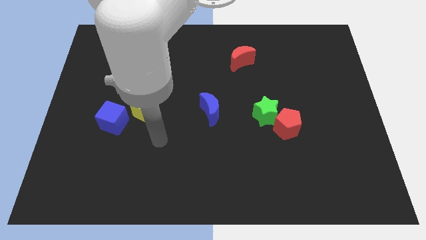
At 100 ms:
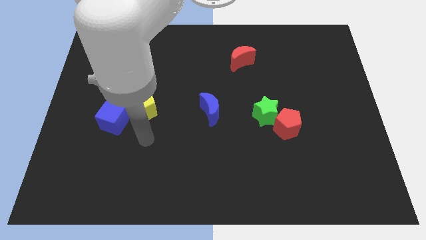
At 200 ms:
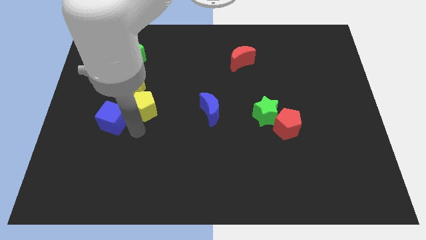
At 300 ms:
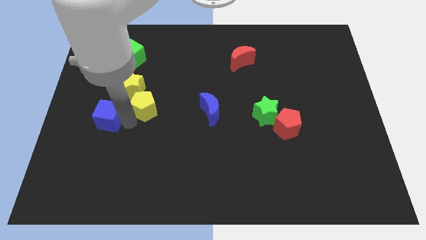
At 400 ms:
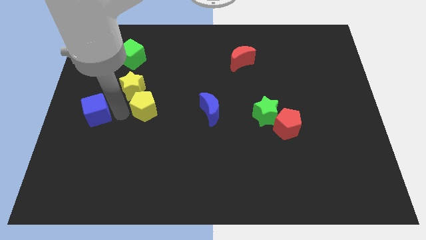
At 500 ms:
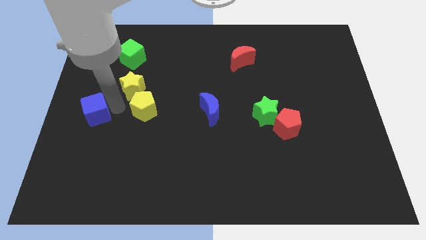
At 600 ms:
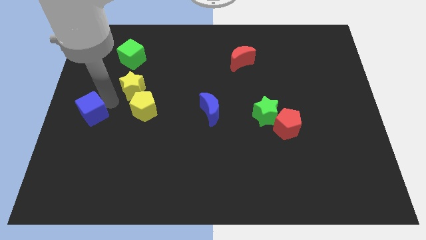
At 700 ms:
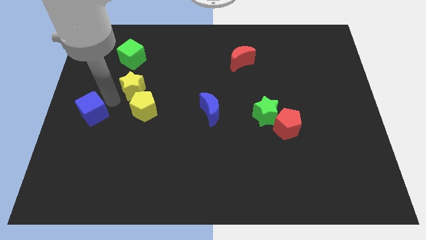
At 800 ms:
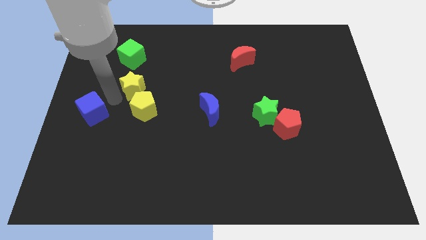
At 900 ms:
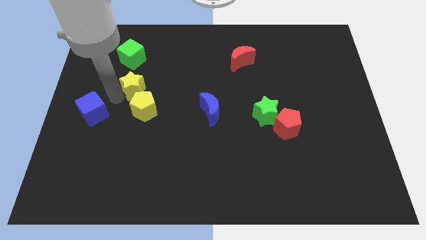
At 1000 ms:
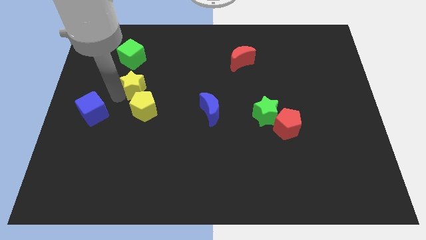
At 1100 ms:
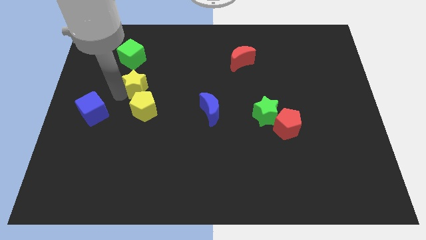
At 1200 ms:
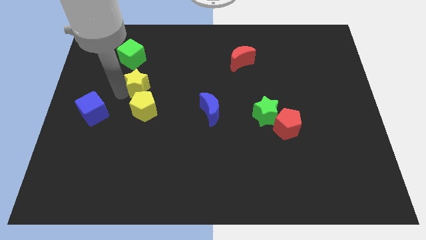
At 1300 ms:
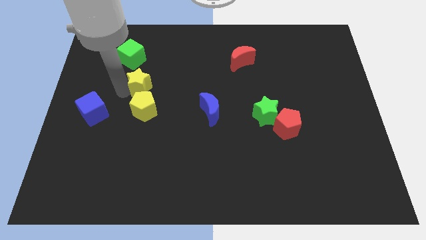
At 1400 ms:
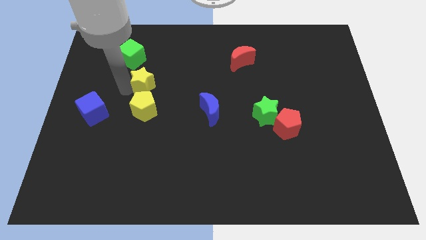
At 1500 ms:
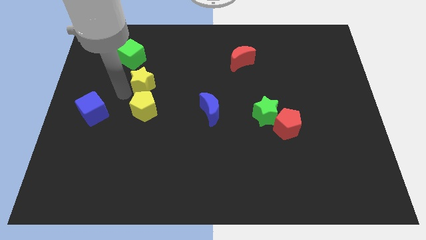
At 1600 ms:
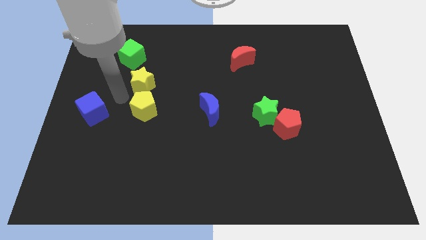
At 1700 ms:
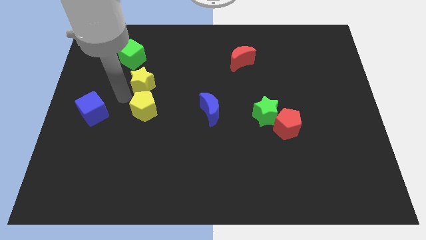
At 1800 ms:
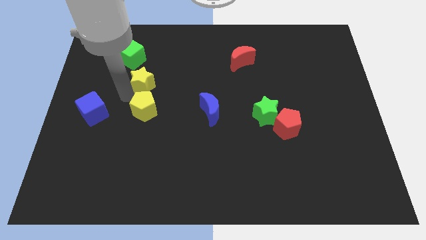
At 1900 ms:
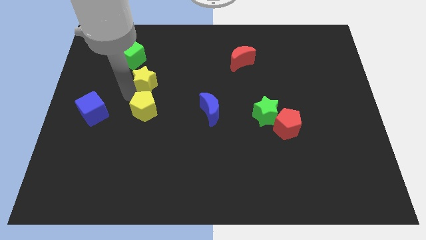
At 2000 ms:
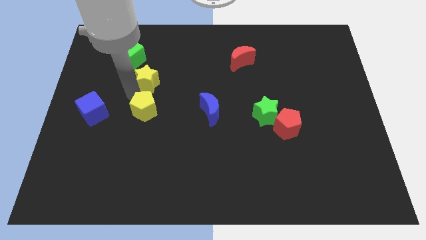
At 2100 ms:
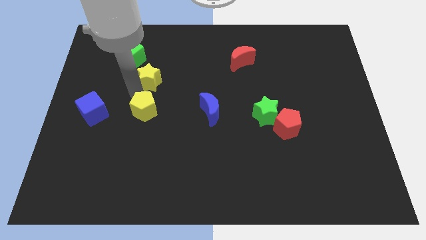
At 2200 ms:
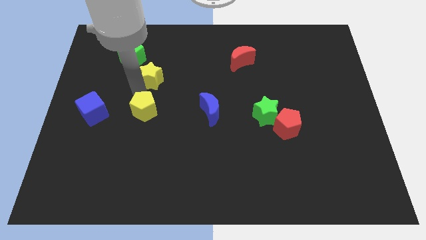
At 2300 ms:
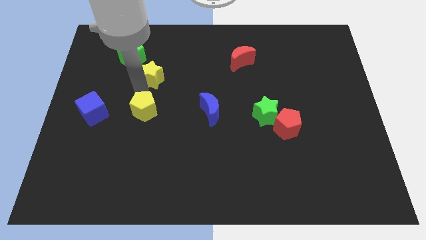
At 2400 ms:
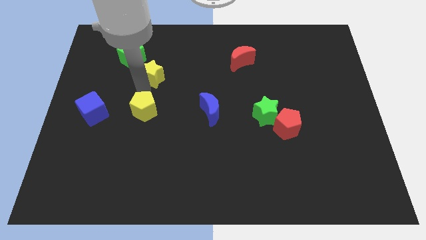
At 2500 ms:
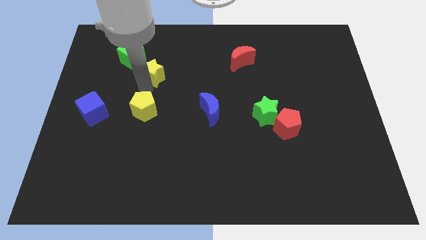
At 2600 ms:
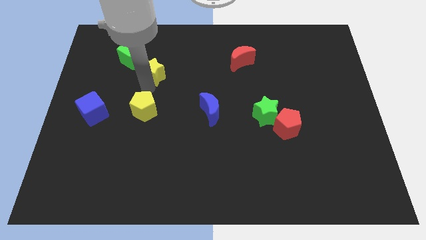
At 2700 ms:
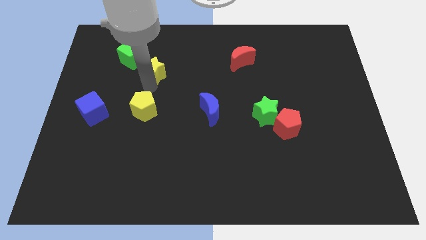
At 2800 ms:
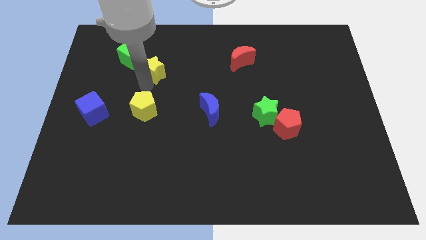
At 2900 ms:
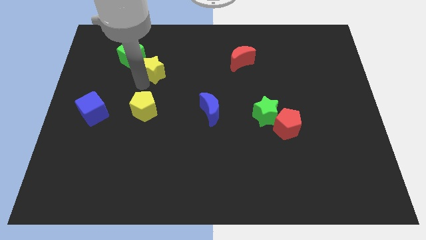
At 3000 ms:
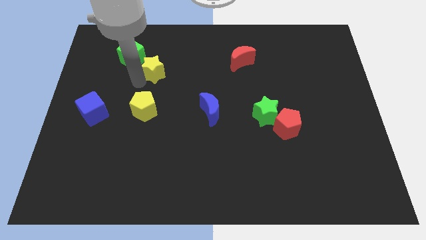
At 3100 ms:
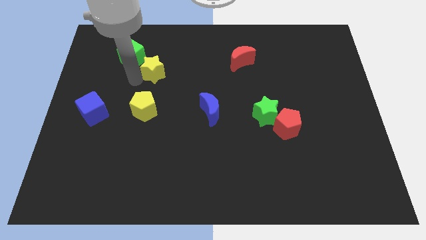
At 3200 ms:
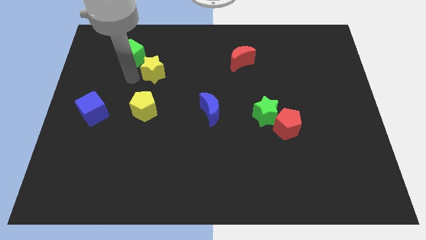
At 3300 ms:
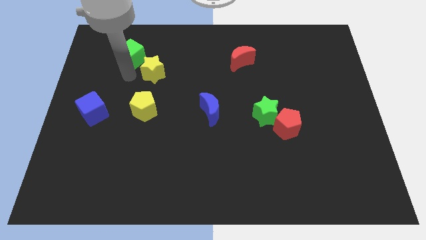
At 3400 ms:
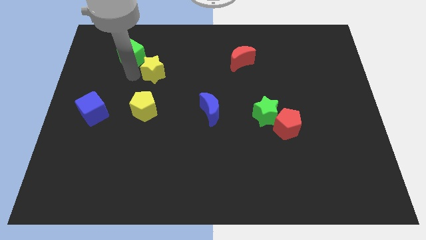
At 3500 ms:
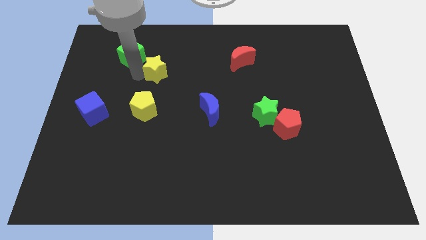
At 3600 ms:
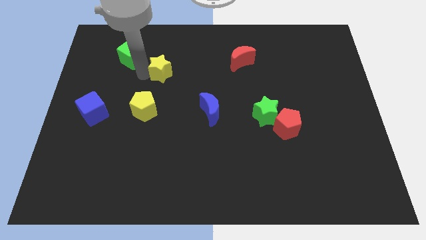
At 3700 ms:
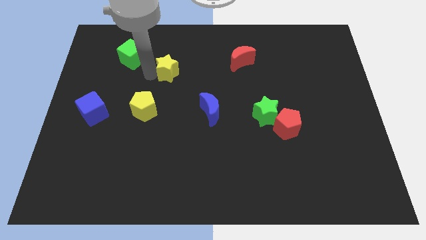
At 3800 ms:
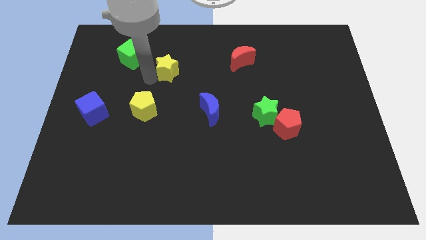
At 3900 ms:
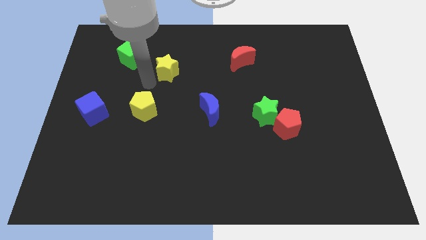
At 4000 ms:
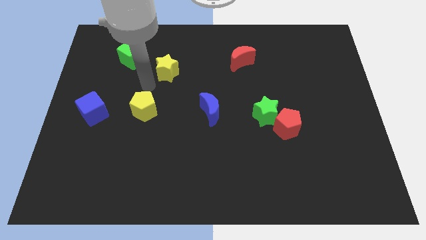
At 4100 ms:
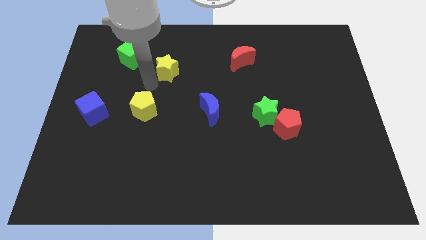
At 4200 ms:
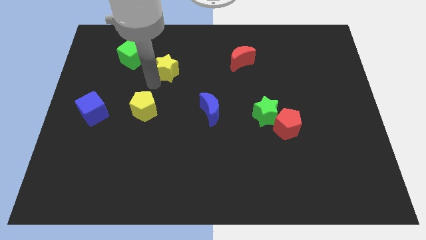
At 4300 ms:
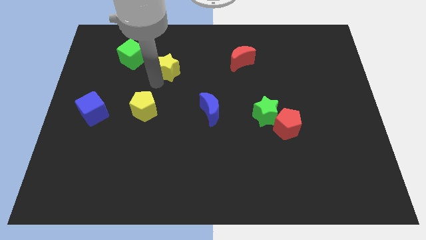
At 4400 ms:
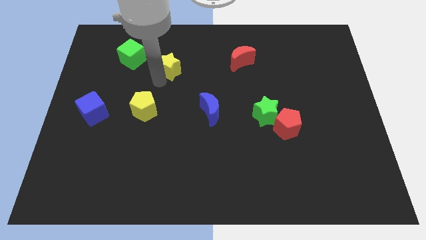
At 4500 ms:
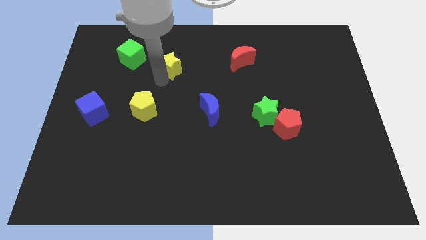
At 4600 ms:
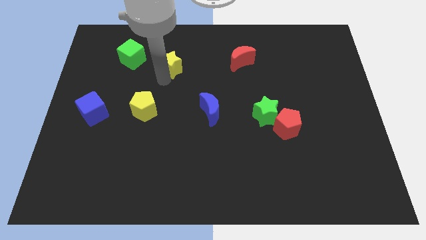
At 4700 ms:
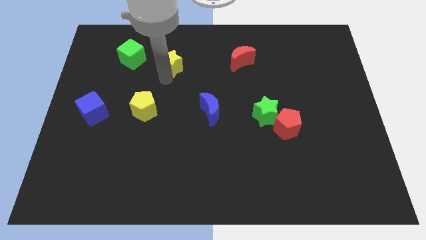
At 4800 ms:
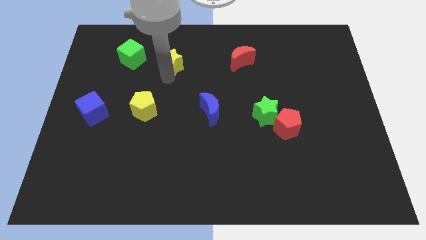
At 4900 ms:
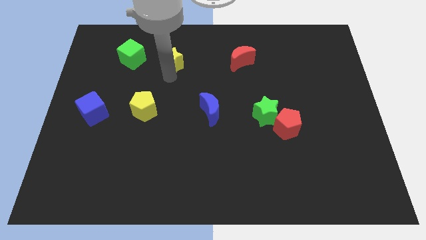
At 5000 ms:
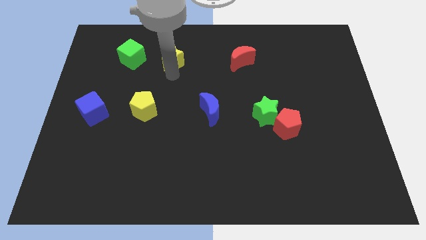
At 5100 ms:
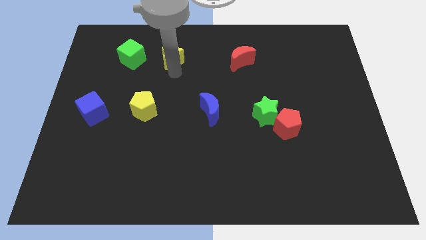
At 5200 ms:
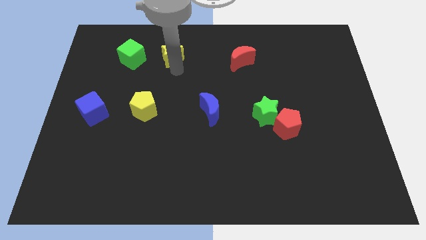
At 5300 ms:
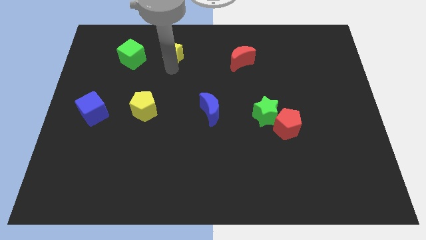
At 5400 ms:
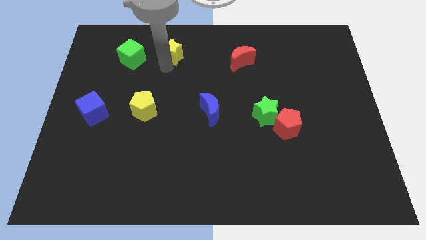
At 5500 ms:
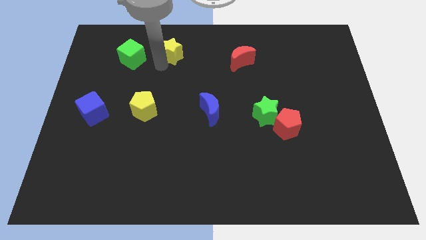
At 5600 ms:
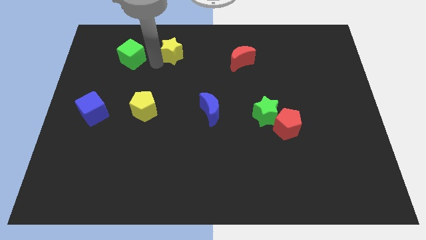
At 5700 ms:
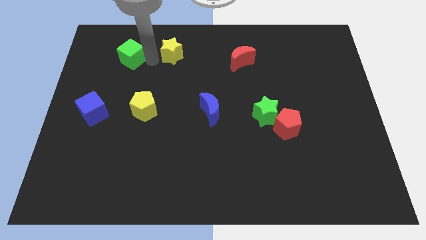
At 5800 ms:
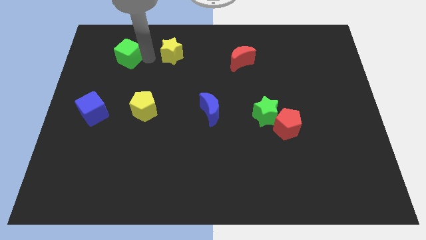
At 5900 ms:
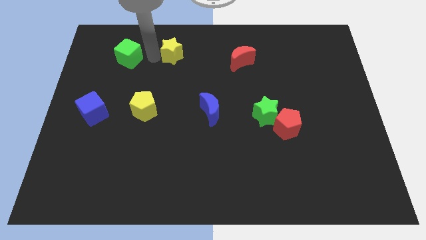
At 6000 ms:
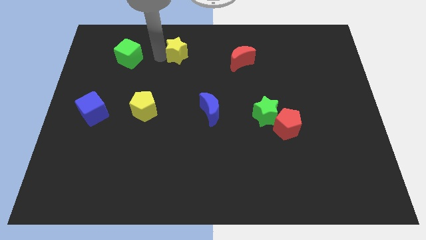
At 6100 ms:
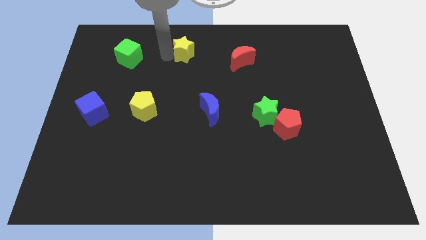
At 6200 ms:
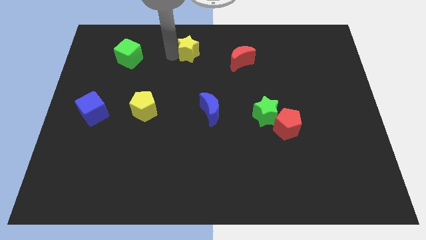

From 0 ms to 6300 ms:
push the yellow star to the top

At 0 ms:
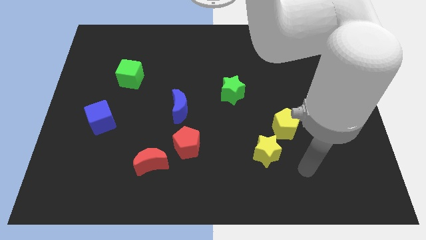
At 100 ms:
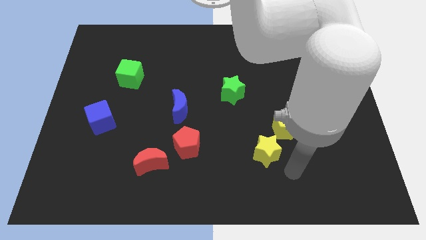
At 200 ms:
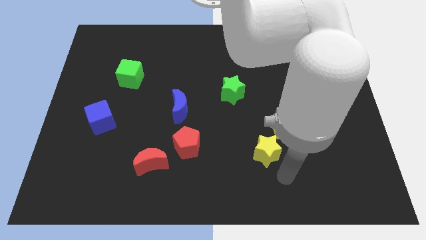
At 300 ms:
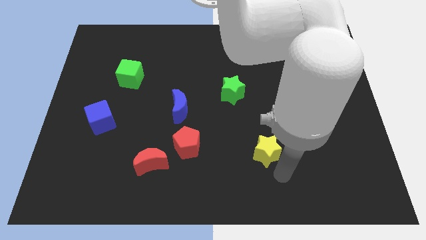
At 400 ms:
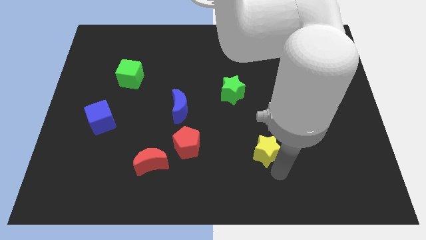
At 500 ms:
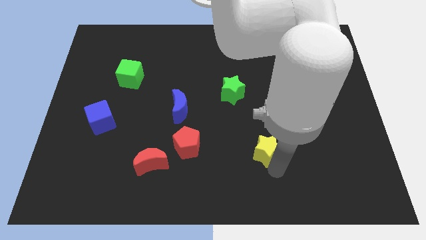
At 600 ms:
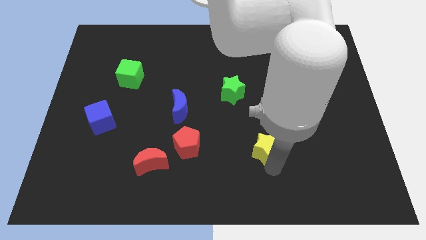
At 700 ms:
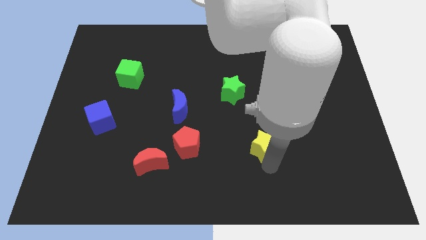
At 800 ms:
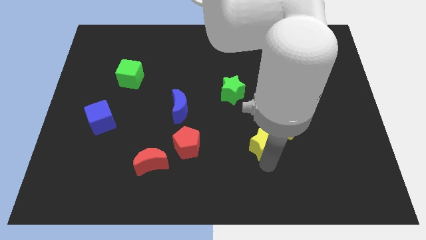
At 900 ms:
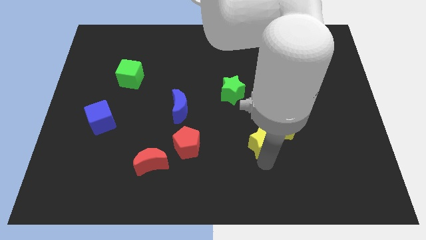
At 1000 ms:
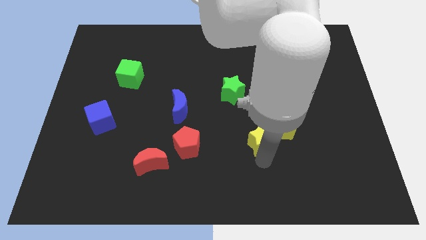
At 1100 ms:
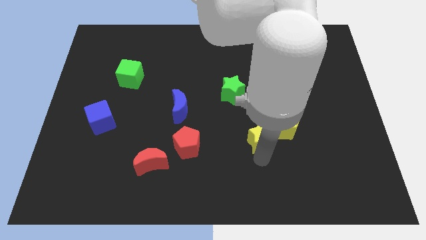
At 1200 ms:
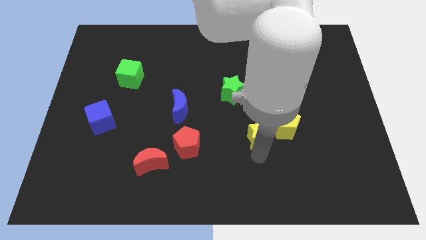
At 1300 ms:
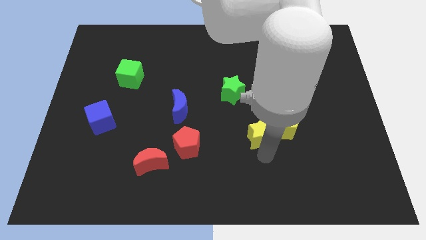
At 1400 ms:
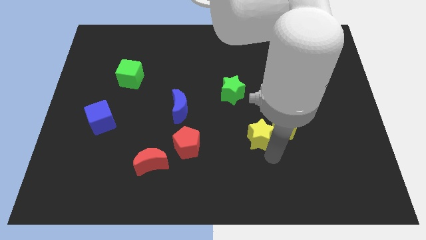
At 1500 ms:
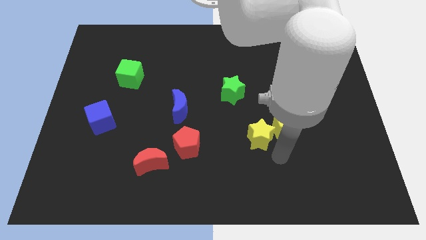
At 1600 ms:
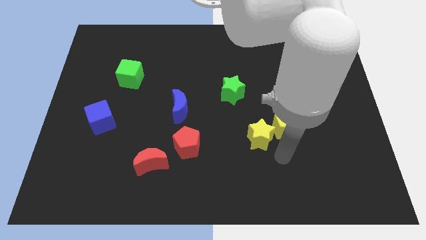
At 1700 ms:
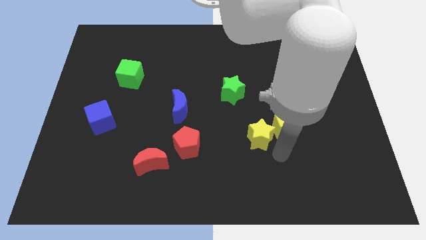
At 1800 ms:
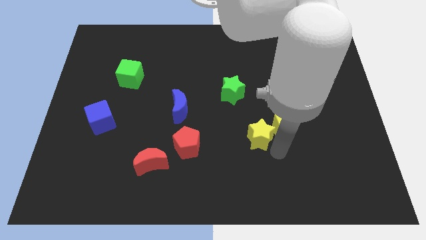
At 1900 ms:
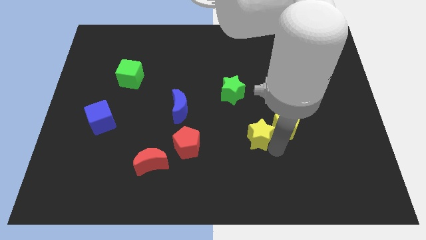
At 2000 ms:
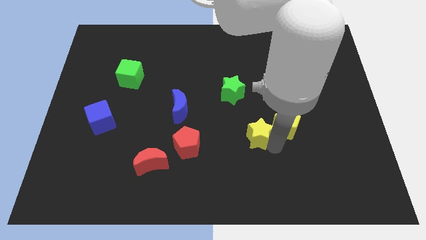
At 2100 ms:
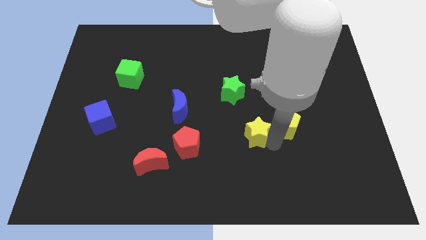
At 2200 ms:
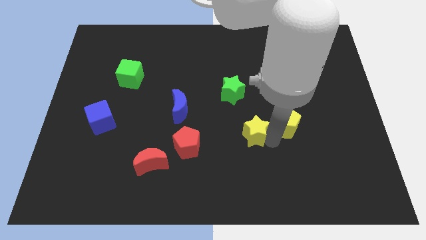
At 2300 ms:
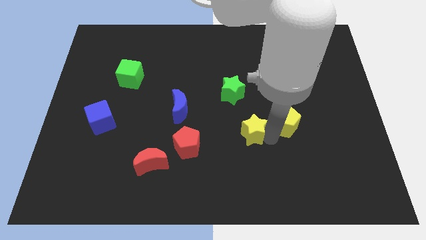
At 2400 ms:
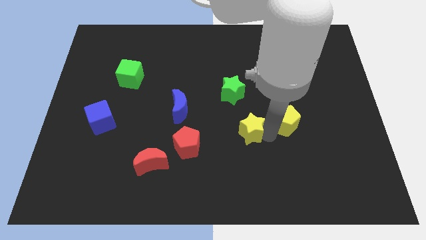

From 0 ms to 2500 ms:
move the yellow star to the center of the board
